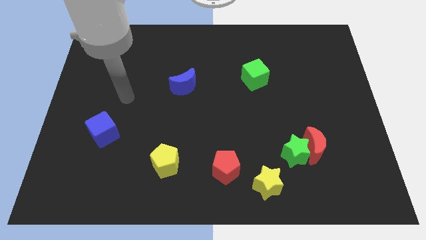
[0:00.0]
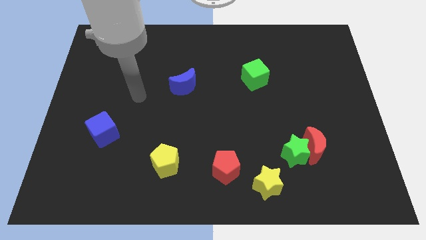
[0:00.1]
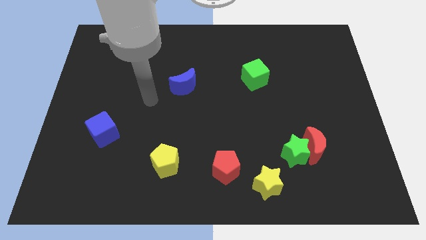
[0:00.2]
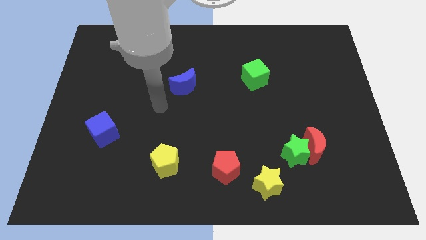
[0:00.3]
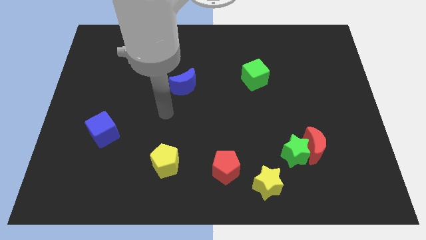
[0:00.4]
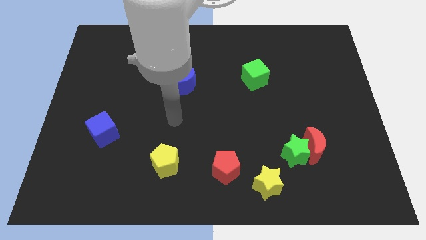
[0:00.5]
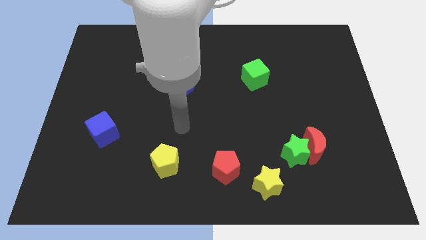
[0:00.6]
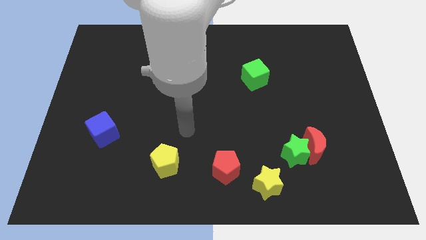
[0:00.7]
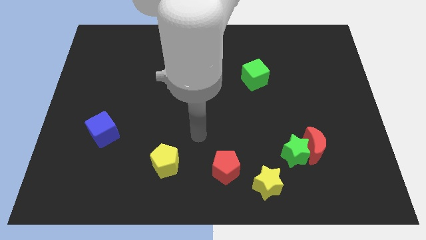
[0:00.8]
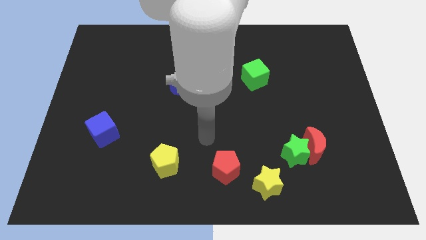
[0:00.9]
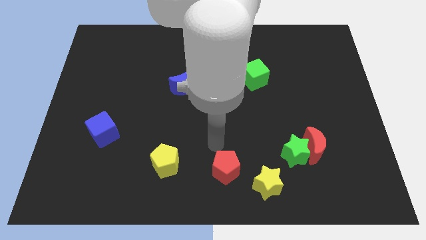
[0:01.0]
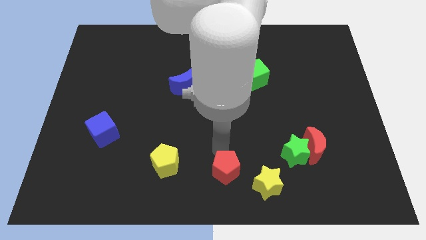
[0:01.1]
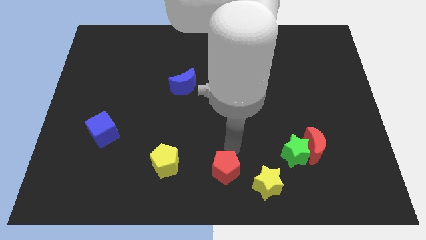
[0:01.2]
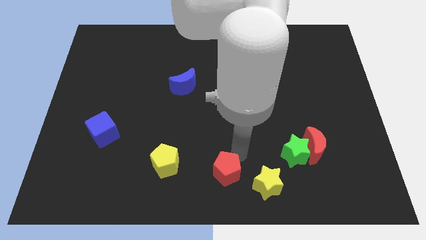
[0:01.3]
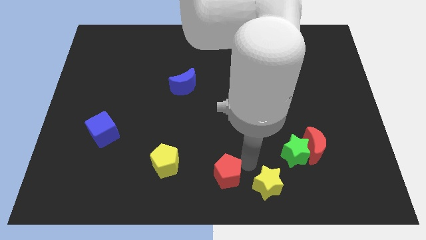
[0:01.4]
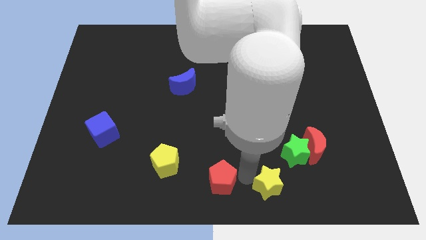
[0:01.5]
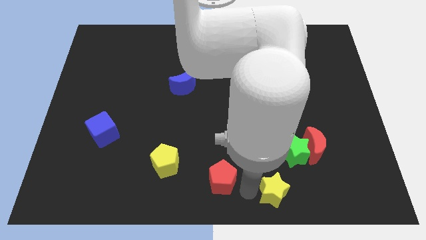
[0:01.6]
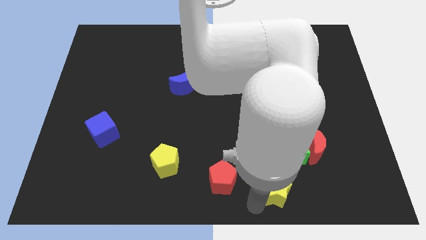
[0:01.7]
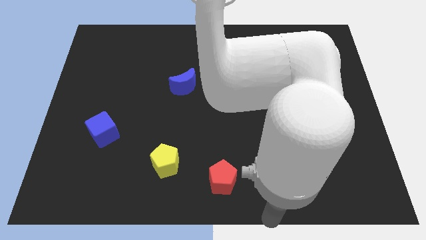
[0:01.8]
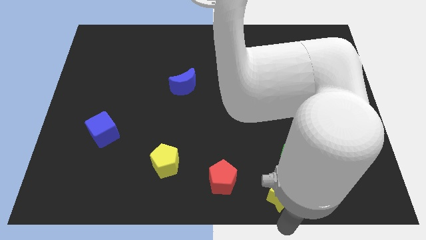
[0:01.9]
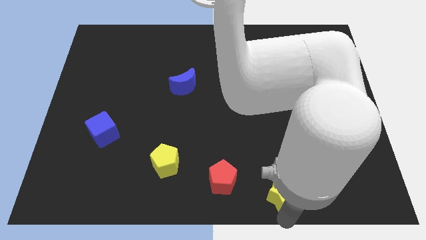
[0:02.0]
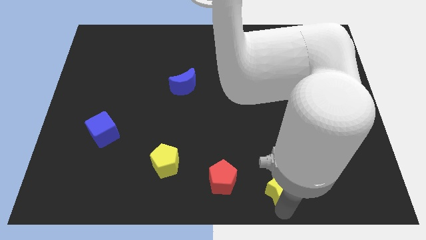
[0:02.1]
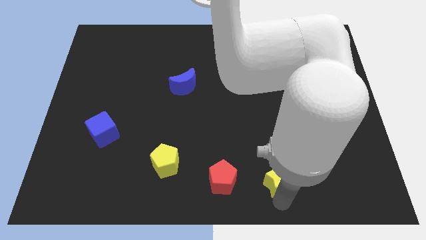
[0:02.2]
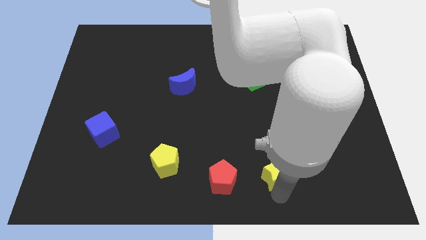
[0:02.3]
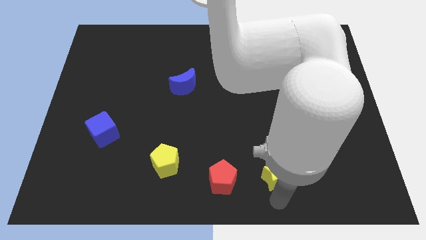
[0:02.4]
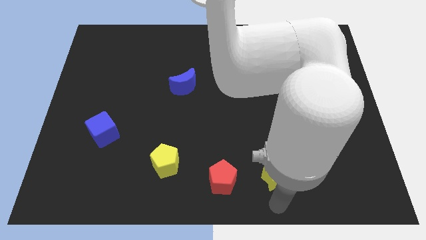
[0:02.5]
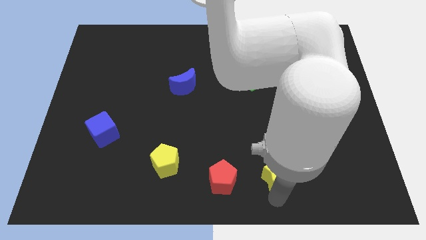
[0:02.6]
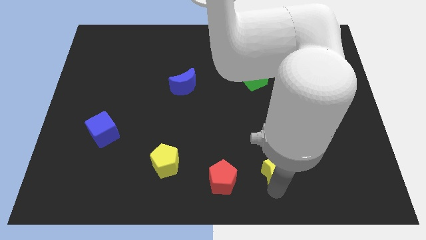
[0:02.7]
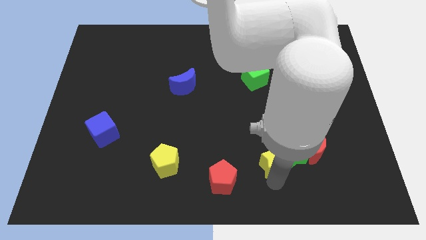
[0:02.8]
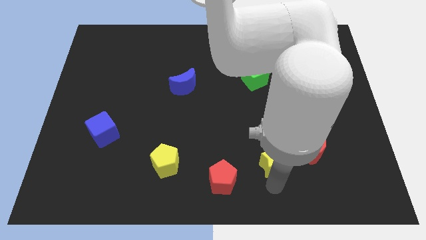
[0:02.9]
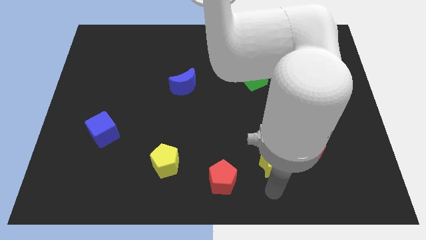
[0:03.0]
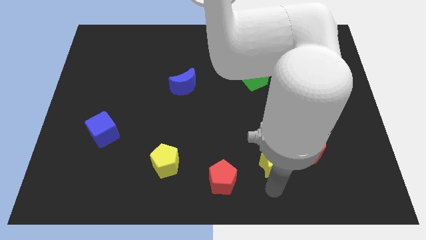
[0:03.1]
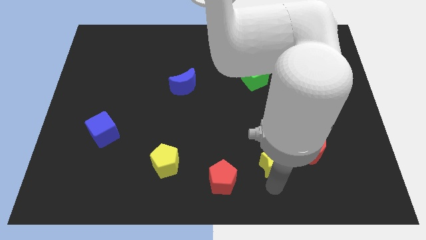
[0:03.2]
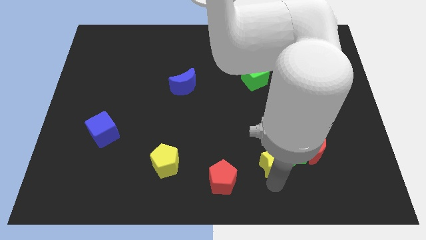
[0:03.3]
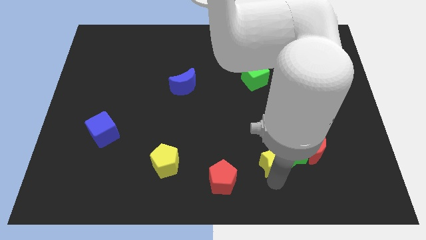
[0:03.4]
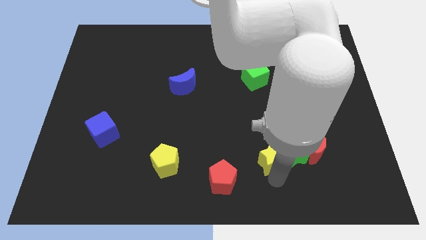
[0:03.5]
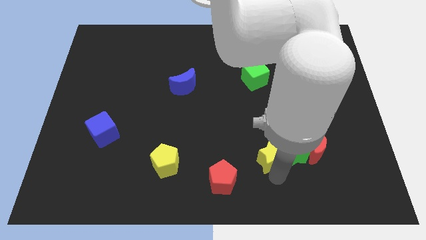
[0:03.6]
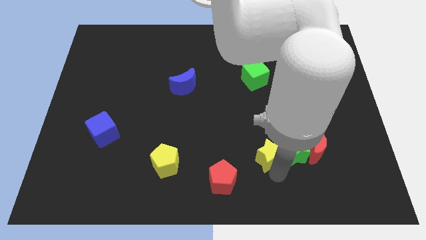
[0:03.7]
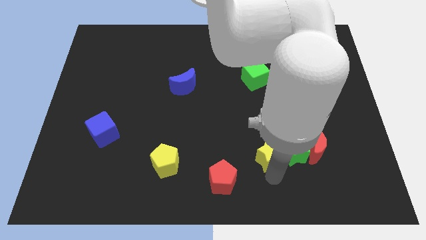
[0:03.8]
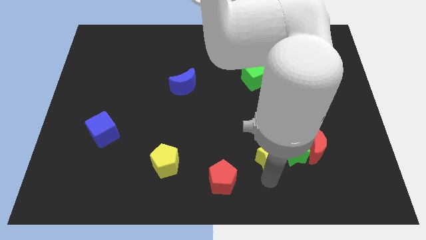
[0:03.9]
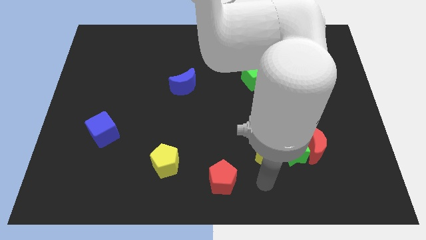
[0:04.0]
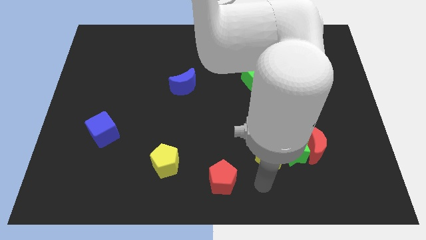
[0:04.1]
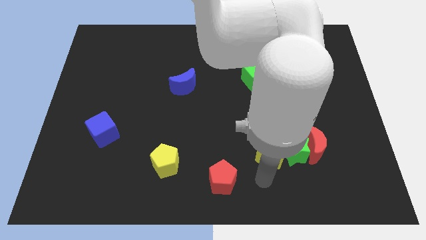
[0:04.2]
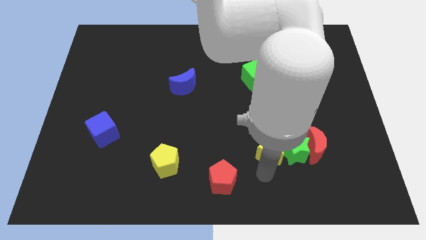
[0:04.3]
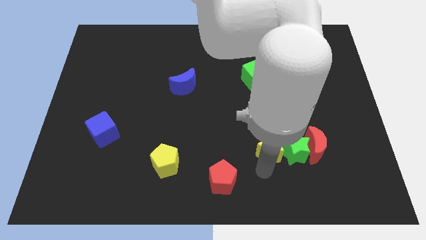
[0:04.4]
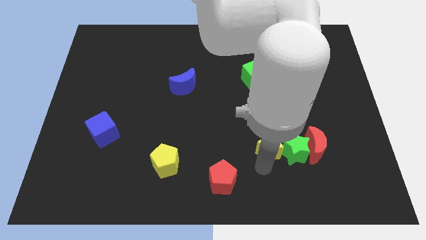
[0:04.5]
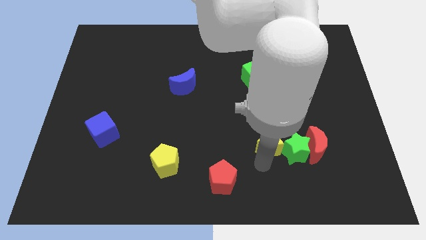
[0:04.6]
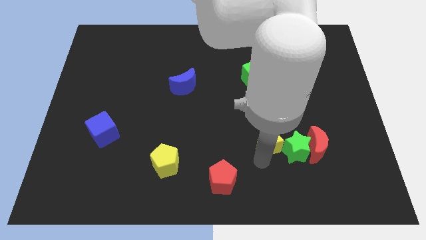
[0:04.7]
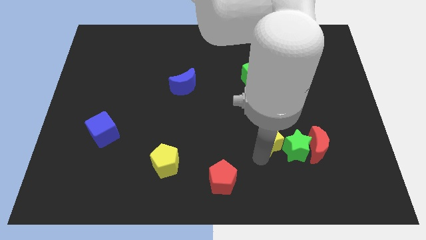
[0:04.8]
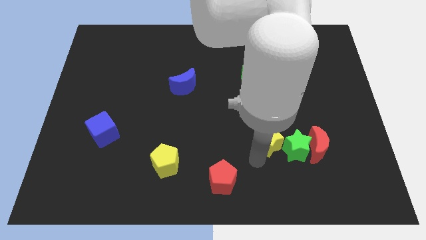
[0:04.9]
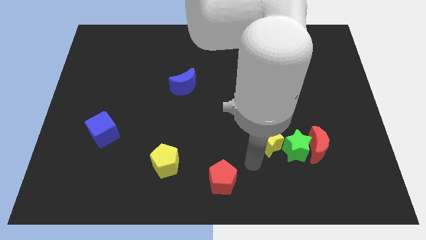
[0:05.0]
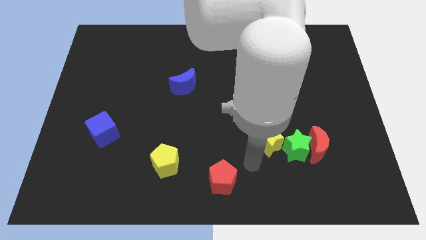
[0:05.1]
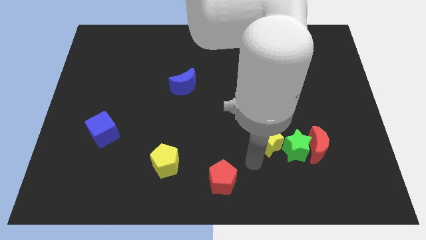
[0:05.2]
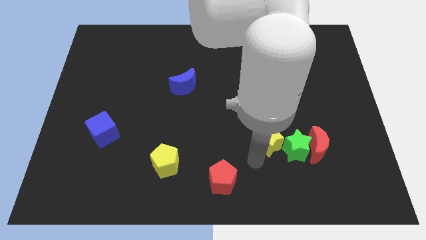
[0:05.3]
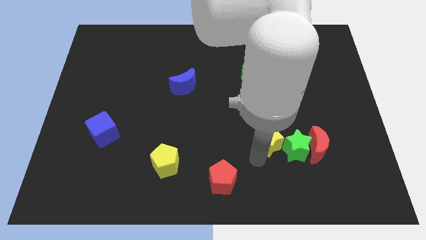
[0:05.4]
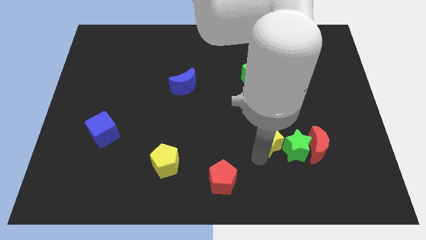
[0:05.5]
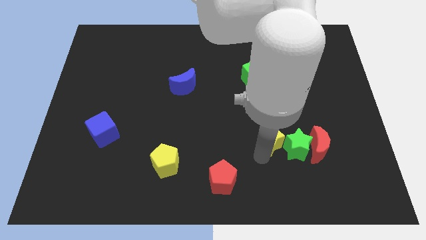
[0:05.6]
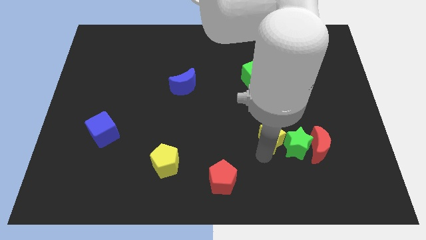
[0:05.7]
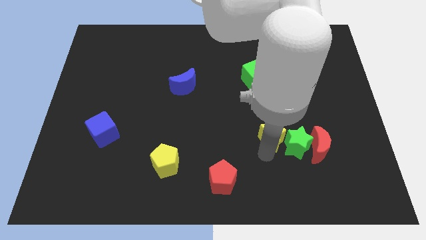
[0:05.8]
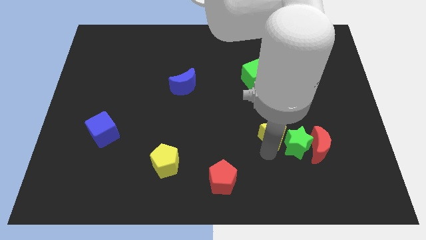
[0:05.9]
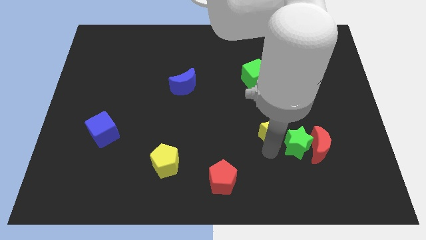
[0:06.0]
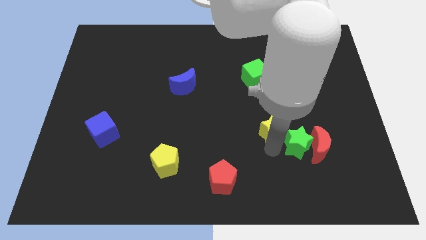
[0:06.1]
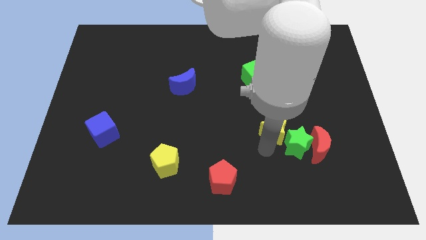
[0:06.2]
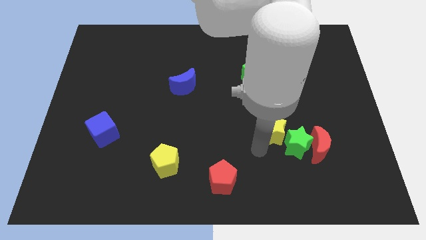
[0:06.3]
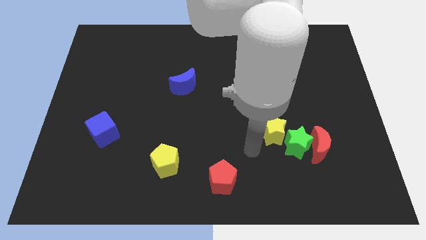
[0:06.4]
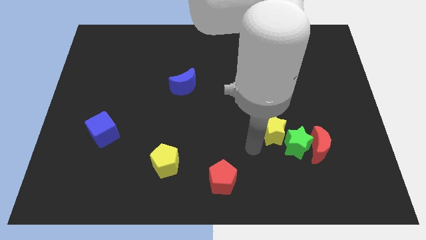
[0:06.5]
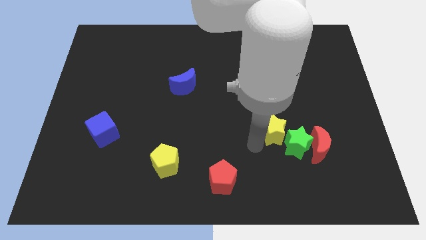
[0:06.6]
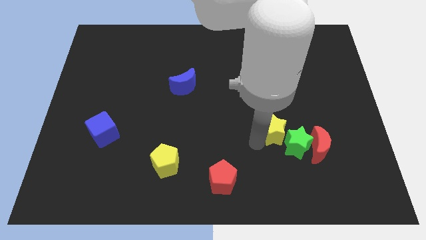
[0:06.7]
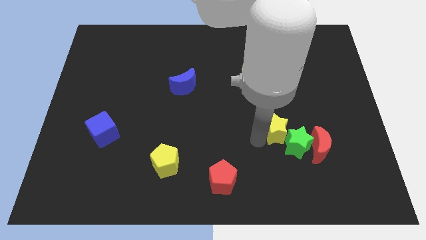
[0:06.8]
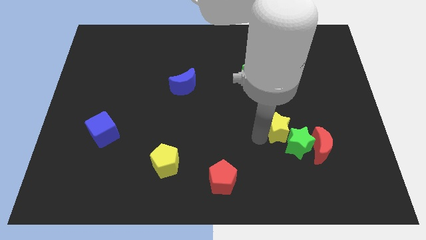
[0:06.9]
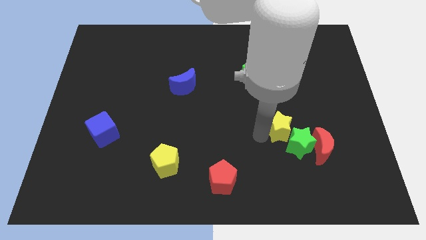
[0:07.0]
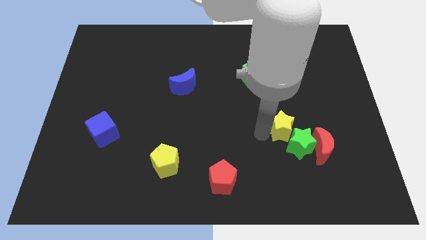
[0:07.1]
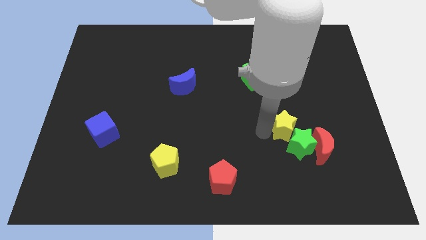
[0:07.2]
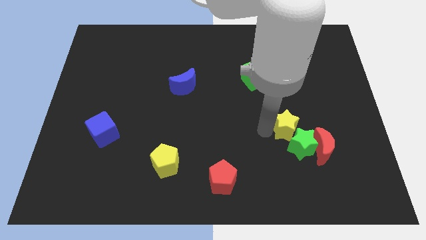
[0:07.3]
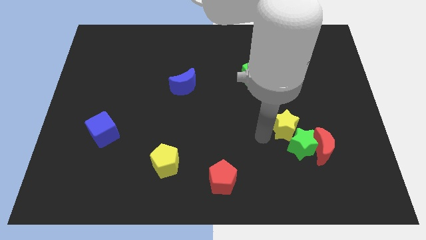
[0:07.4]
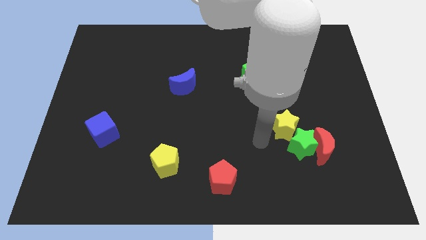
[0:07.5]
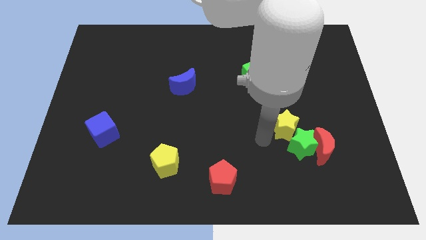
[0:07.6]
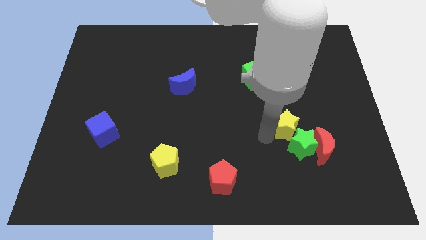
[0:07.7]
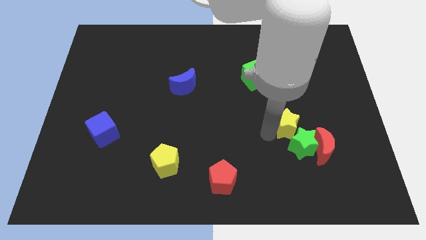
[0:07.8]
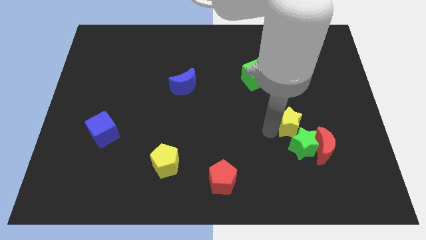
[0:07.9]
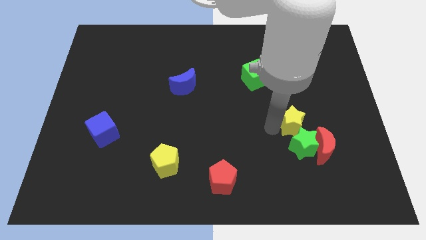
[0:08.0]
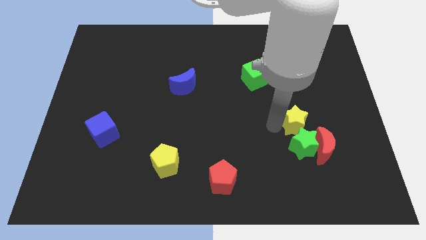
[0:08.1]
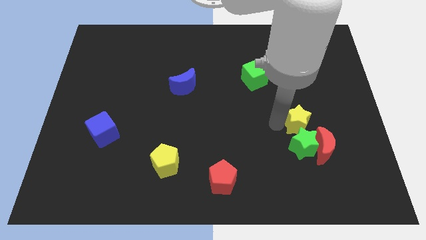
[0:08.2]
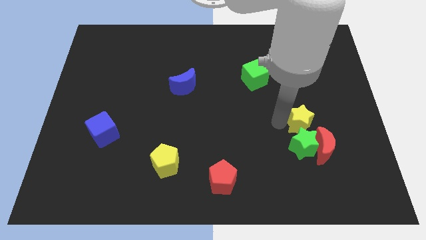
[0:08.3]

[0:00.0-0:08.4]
move the yellow star to the top side of the red moon
